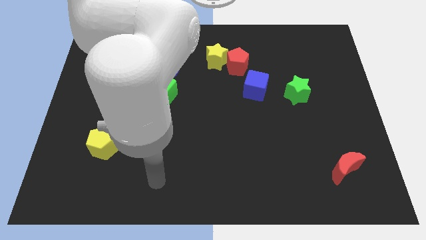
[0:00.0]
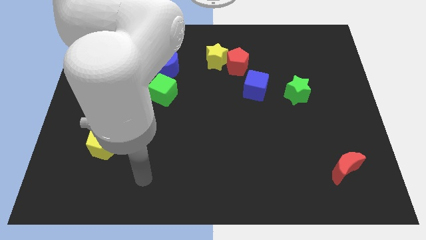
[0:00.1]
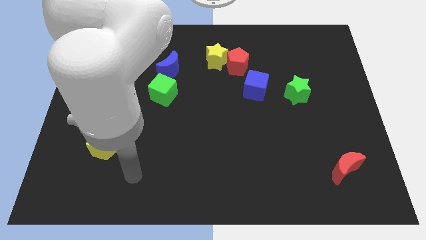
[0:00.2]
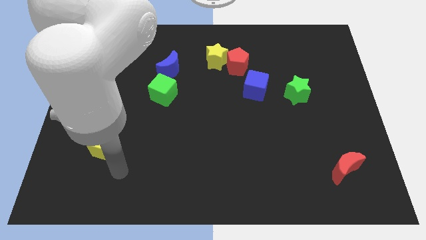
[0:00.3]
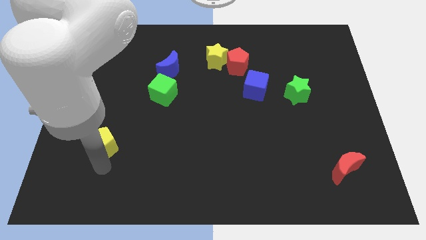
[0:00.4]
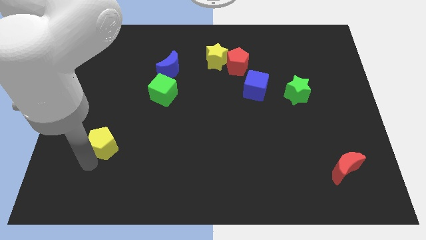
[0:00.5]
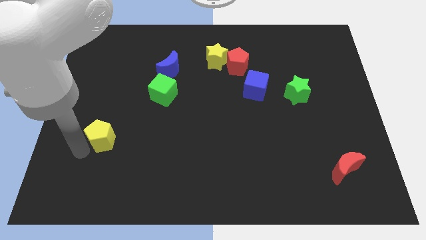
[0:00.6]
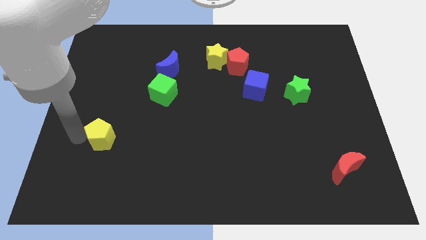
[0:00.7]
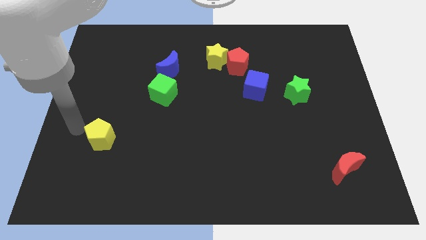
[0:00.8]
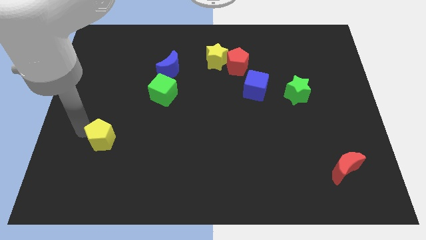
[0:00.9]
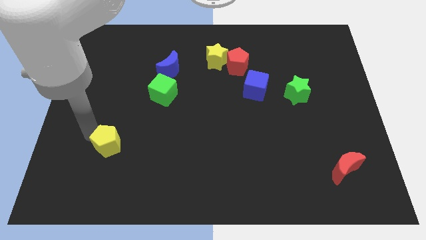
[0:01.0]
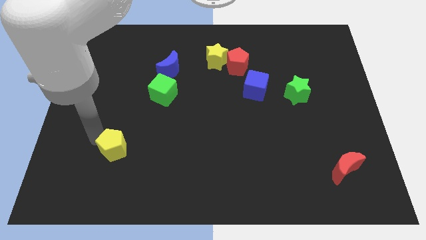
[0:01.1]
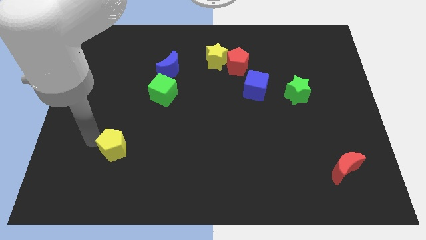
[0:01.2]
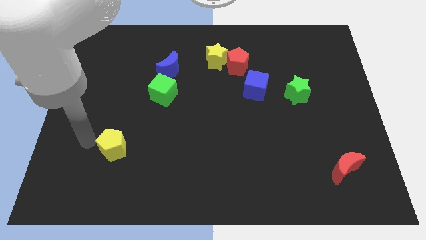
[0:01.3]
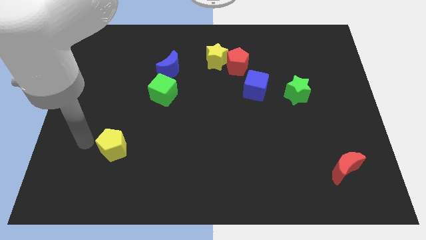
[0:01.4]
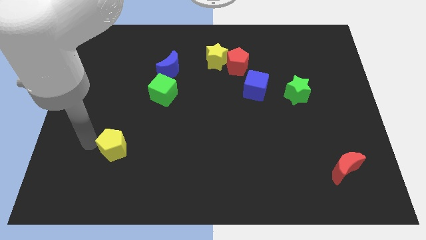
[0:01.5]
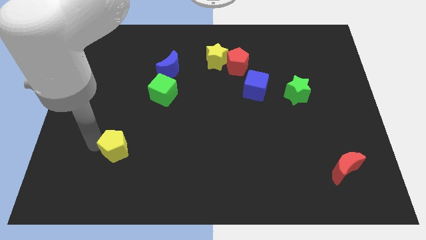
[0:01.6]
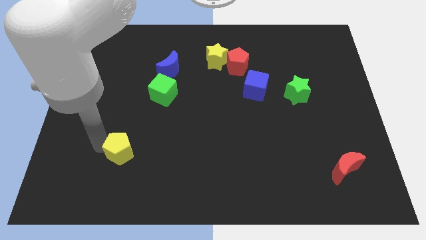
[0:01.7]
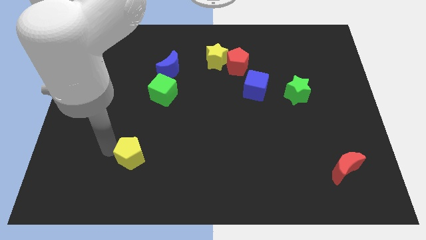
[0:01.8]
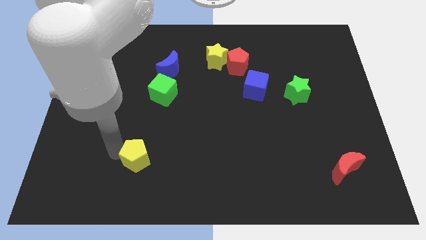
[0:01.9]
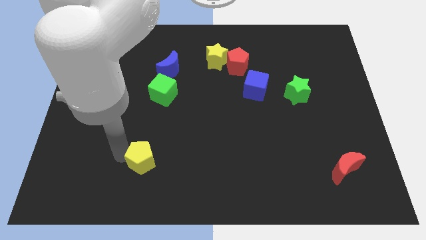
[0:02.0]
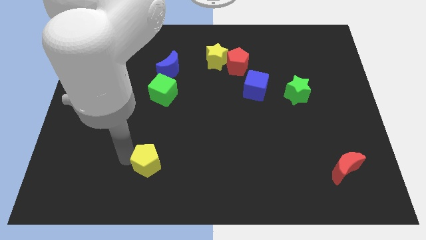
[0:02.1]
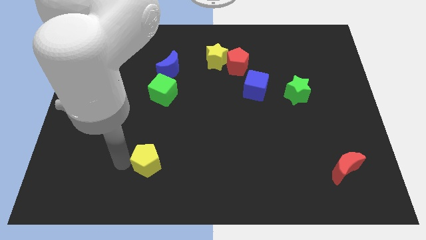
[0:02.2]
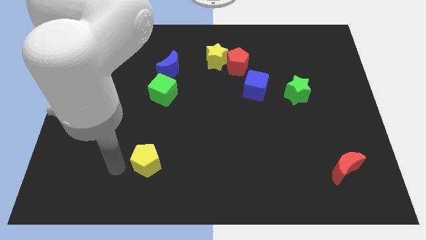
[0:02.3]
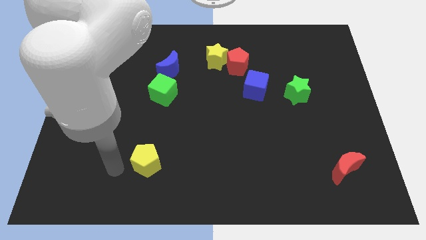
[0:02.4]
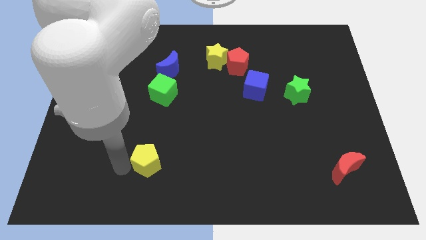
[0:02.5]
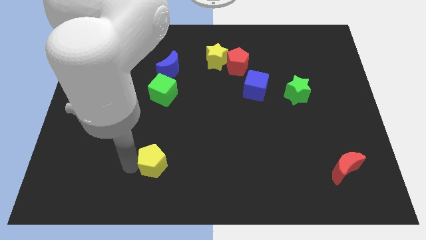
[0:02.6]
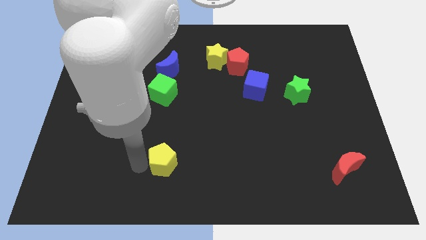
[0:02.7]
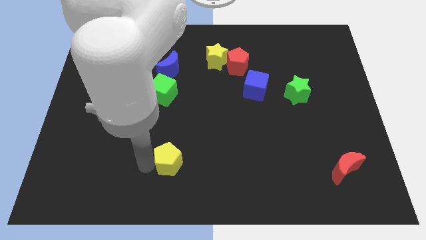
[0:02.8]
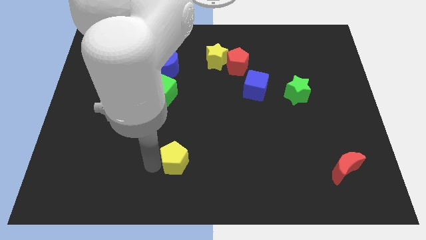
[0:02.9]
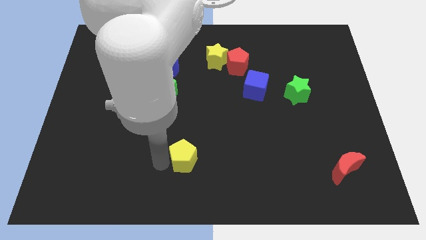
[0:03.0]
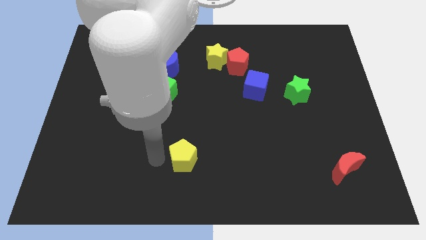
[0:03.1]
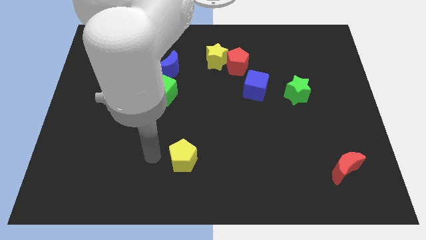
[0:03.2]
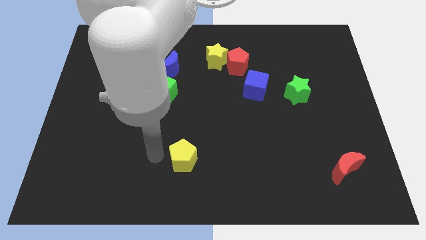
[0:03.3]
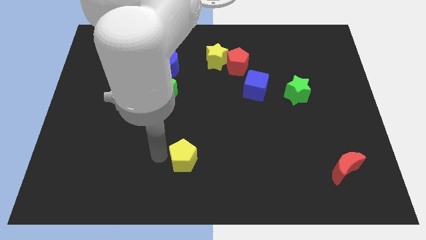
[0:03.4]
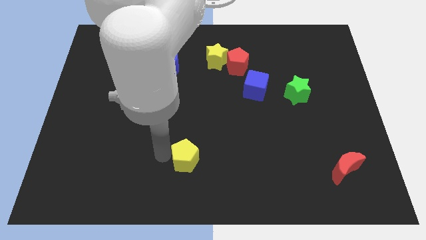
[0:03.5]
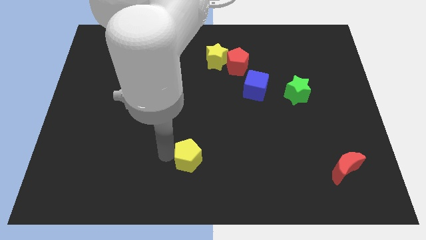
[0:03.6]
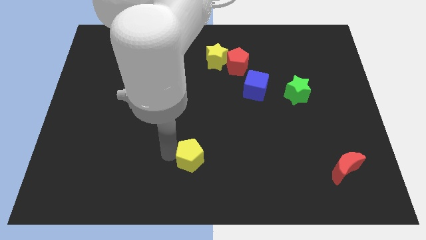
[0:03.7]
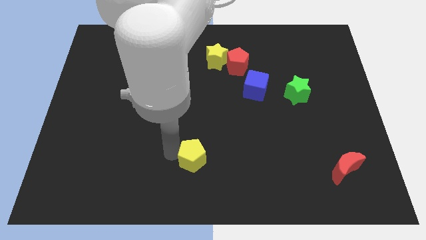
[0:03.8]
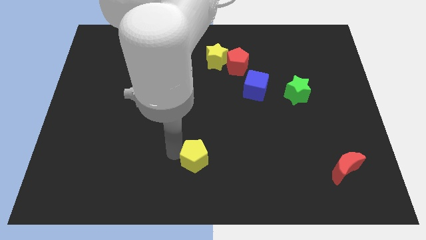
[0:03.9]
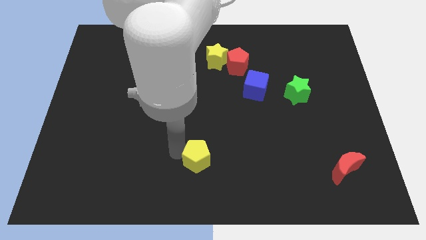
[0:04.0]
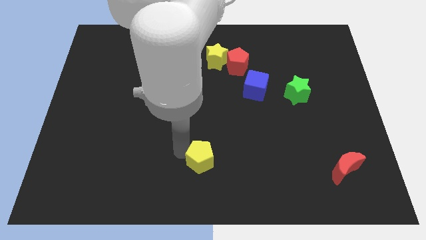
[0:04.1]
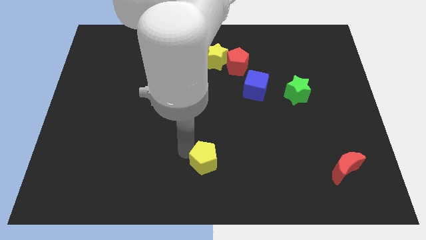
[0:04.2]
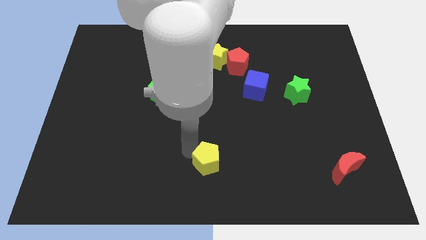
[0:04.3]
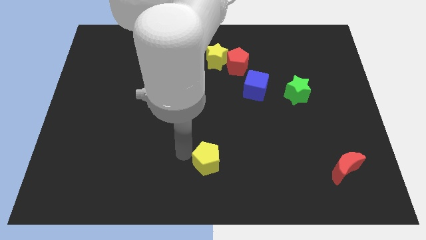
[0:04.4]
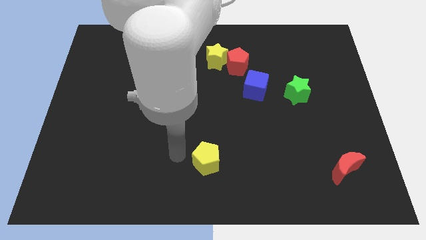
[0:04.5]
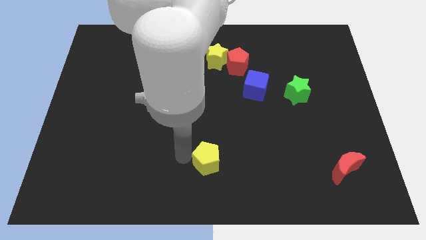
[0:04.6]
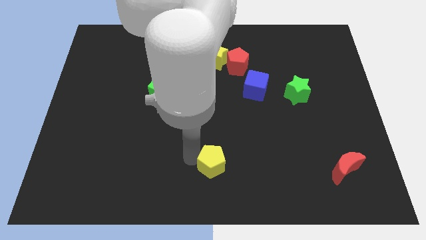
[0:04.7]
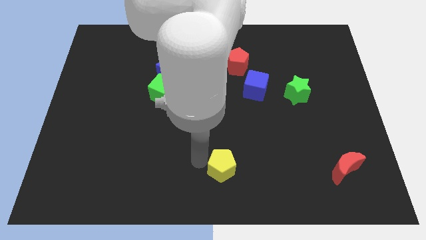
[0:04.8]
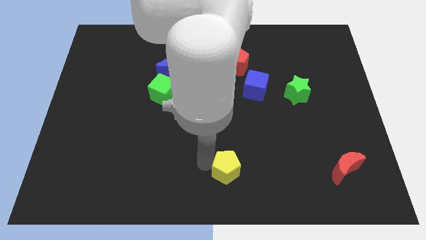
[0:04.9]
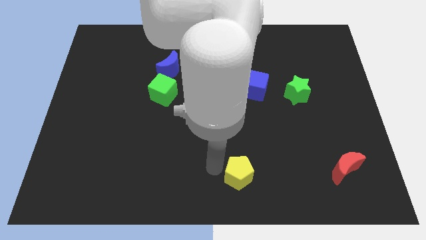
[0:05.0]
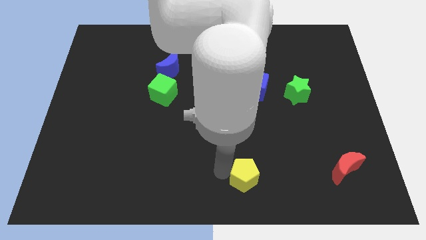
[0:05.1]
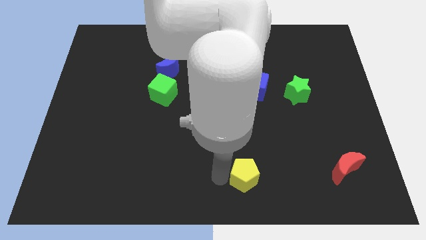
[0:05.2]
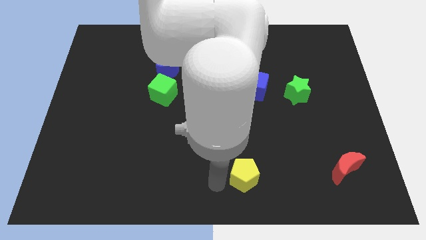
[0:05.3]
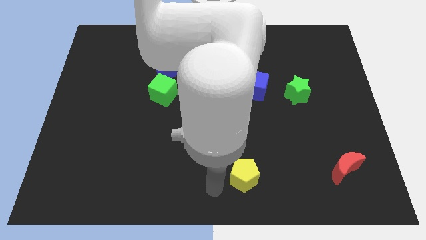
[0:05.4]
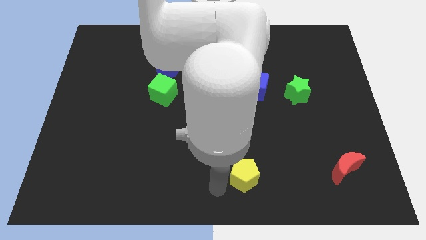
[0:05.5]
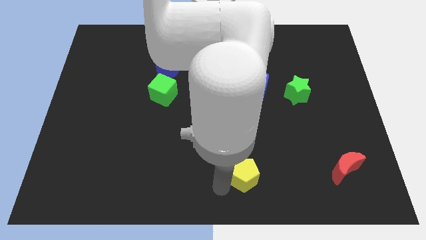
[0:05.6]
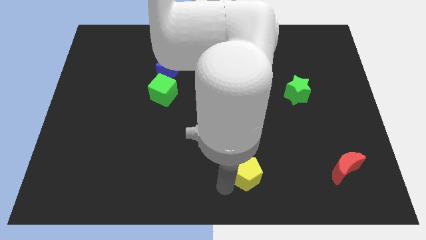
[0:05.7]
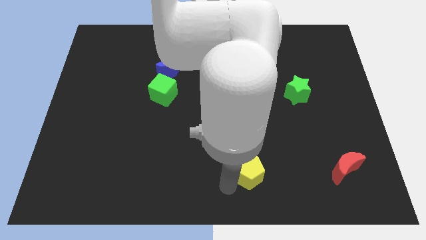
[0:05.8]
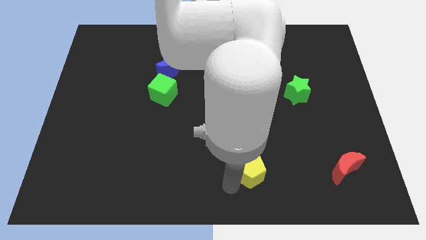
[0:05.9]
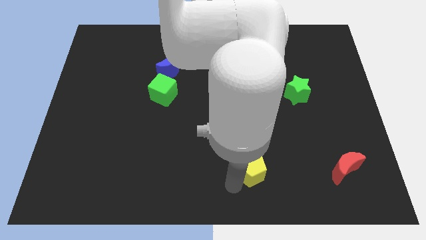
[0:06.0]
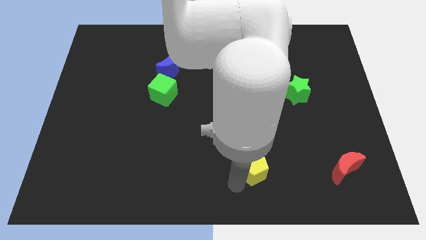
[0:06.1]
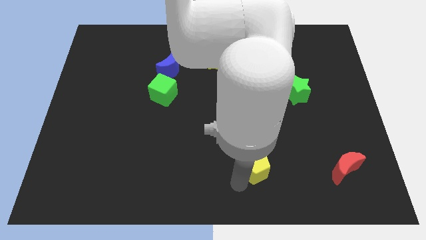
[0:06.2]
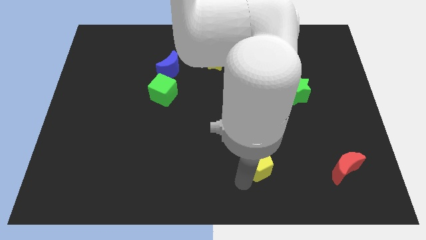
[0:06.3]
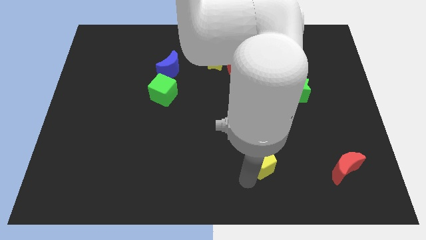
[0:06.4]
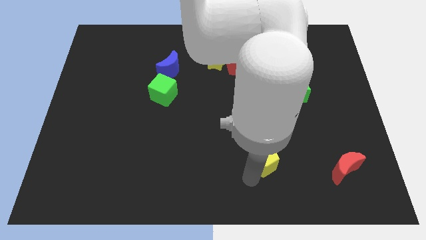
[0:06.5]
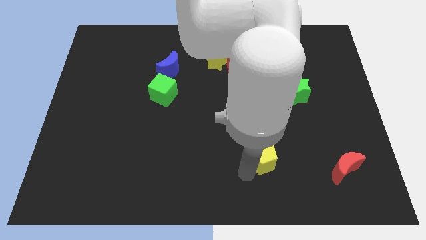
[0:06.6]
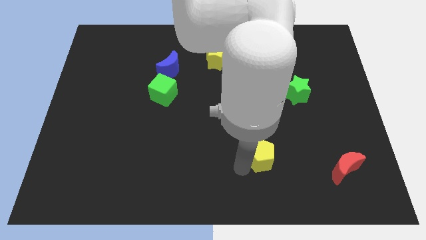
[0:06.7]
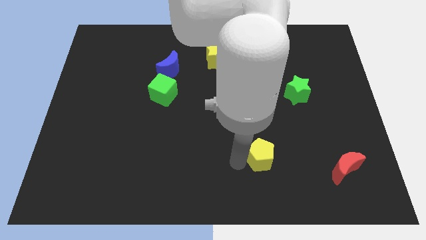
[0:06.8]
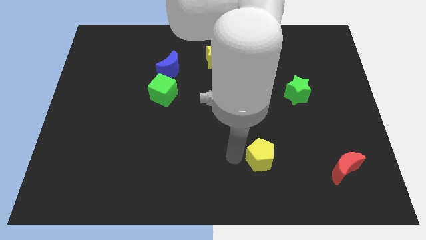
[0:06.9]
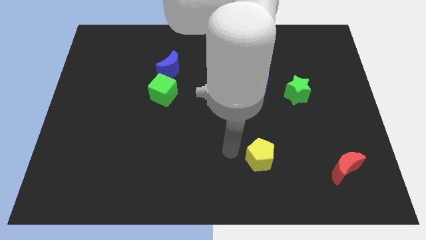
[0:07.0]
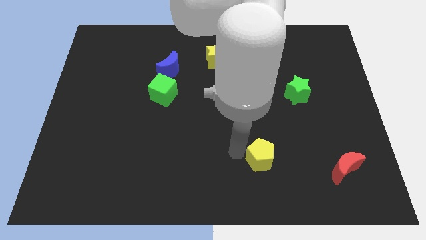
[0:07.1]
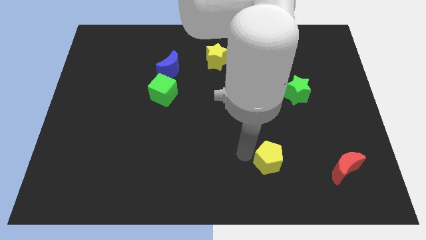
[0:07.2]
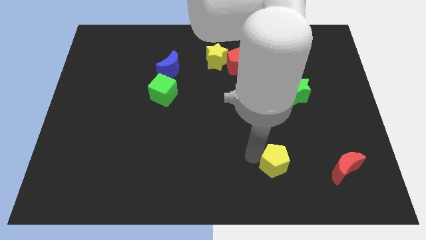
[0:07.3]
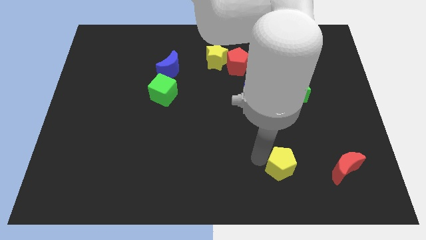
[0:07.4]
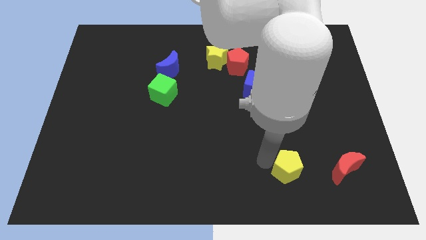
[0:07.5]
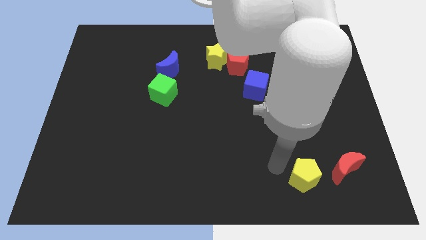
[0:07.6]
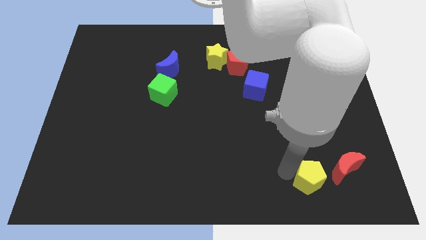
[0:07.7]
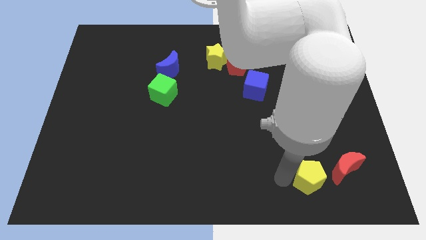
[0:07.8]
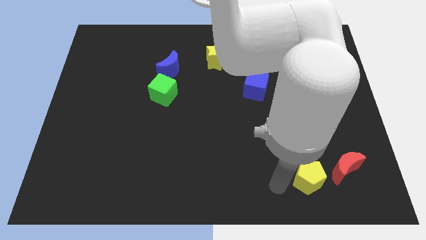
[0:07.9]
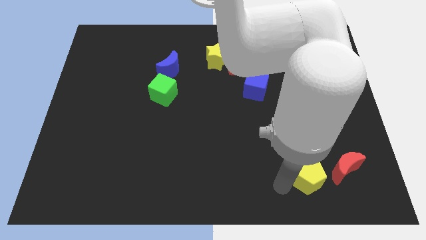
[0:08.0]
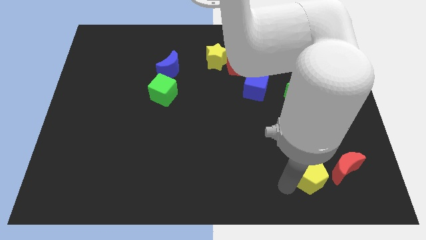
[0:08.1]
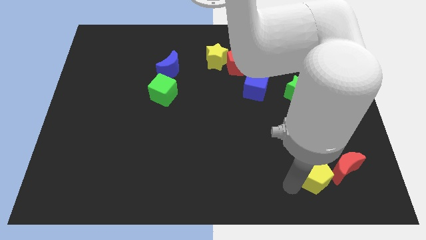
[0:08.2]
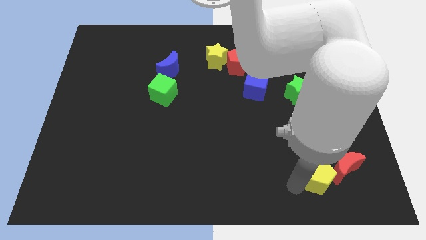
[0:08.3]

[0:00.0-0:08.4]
push the yellow pentagon next to the red moon
